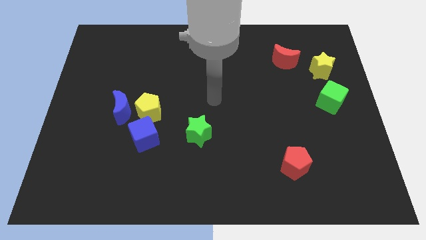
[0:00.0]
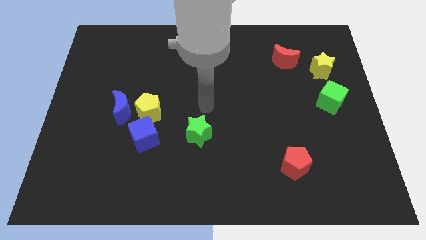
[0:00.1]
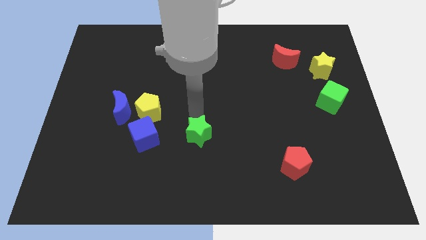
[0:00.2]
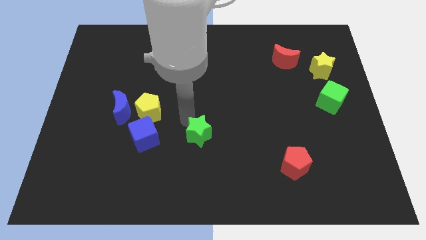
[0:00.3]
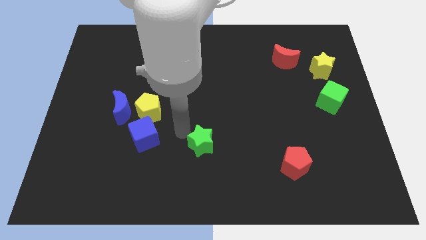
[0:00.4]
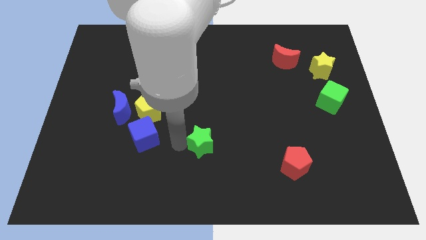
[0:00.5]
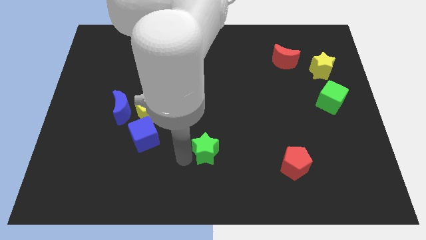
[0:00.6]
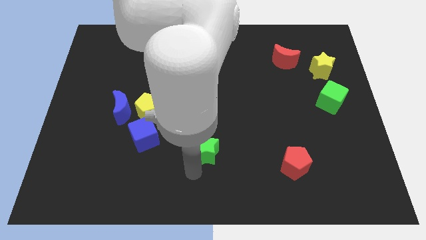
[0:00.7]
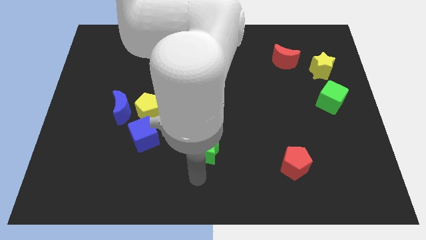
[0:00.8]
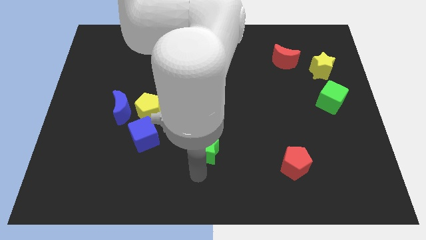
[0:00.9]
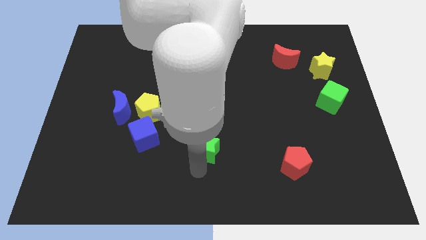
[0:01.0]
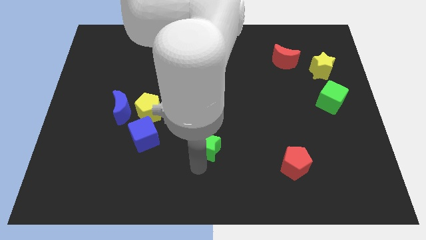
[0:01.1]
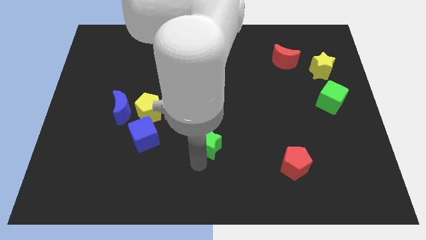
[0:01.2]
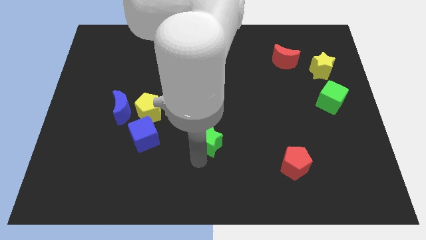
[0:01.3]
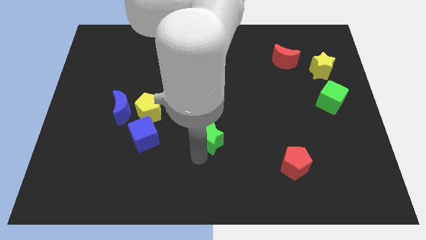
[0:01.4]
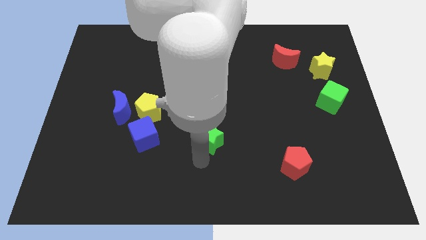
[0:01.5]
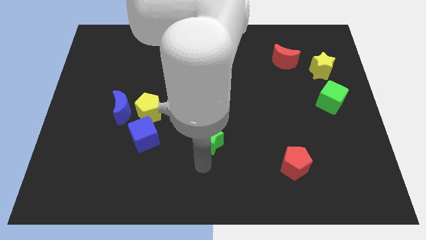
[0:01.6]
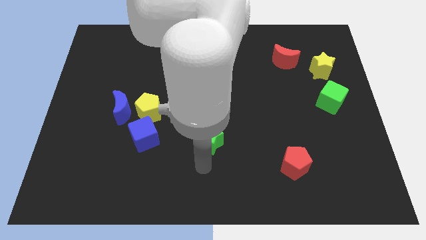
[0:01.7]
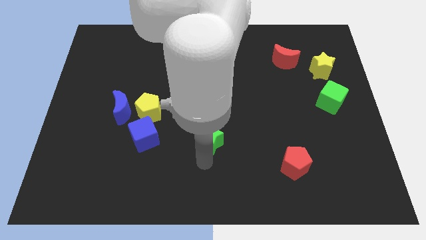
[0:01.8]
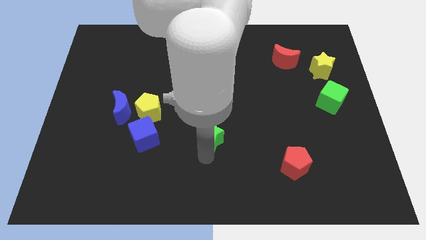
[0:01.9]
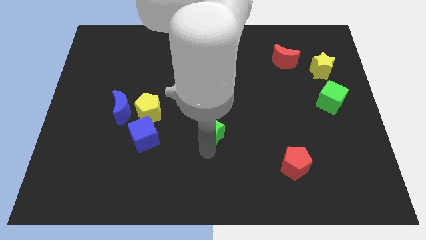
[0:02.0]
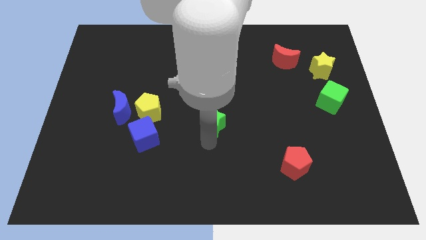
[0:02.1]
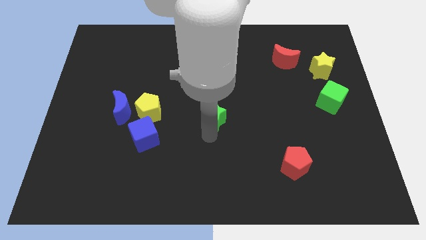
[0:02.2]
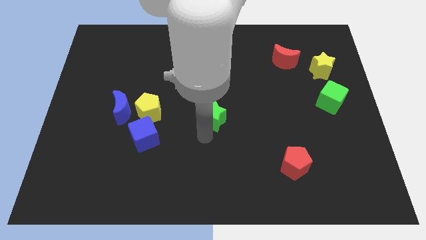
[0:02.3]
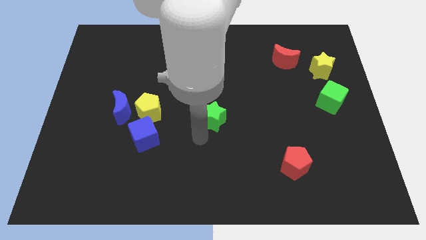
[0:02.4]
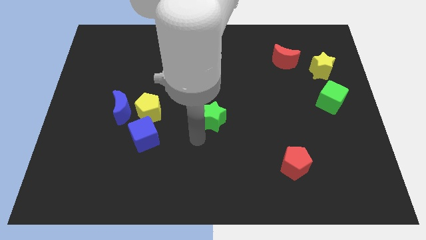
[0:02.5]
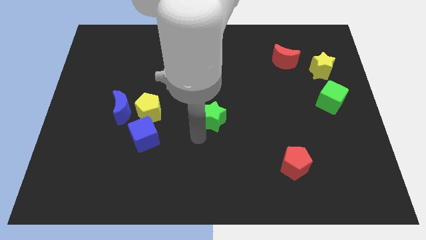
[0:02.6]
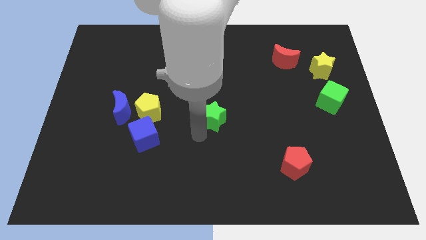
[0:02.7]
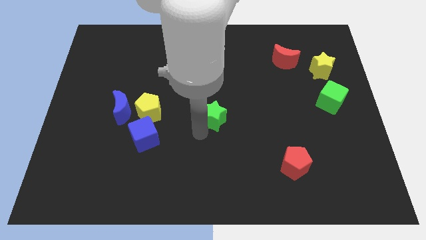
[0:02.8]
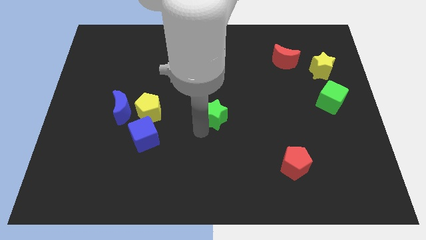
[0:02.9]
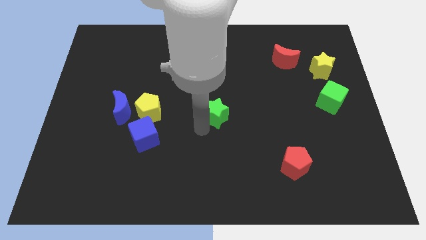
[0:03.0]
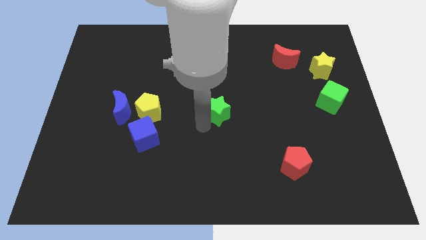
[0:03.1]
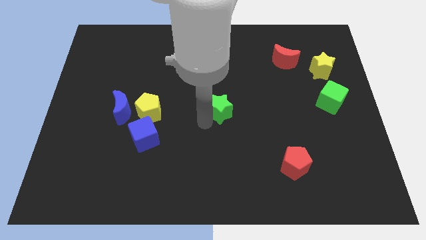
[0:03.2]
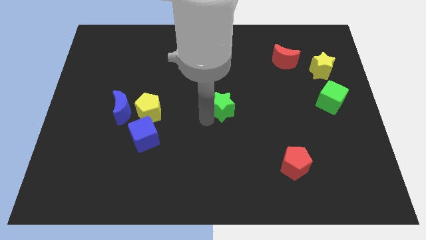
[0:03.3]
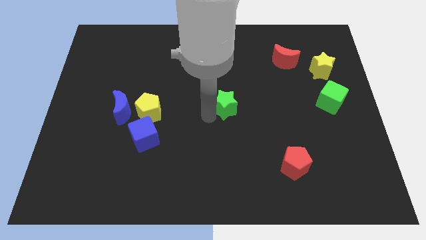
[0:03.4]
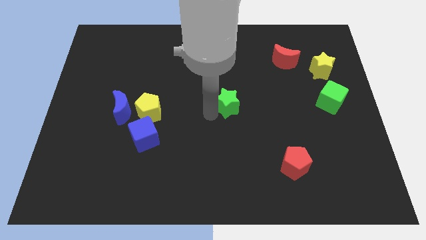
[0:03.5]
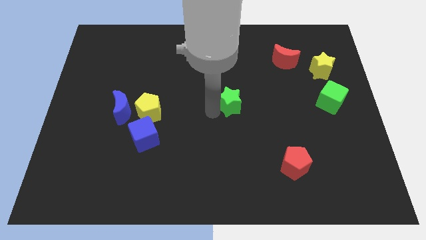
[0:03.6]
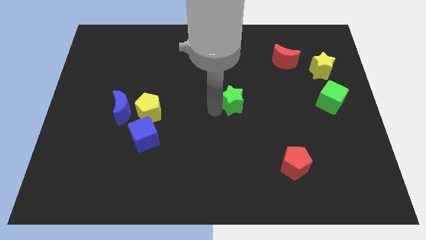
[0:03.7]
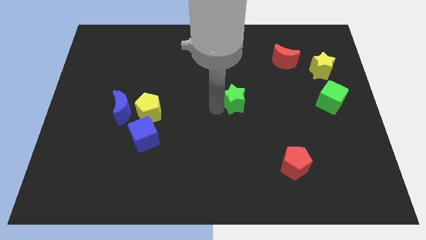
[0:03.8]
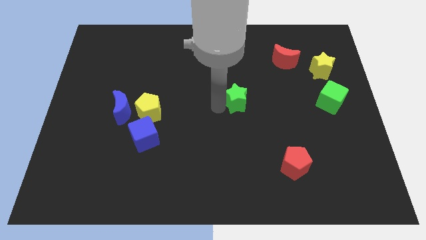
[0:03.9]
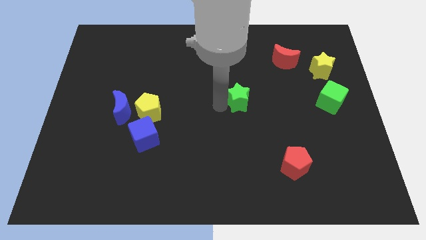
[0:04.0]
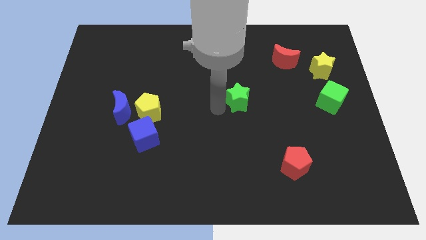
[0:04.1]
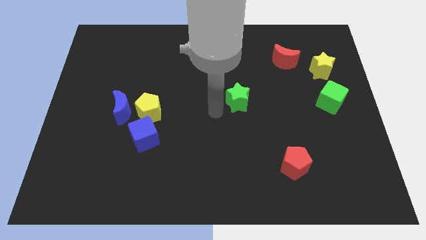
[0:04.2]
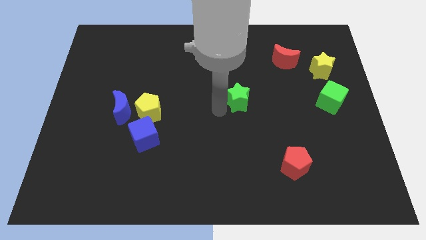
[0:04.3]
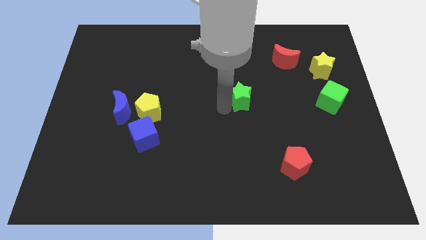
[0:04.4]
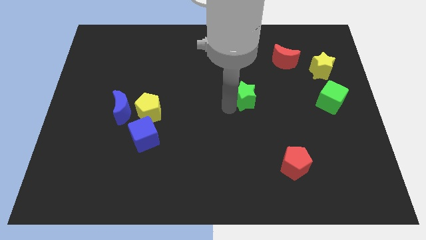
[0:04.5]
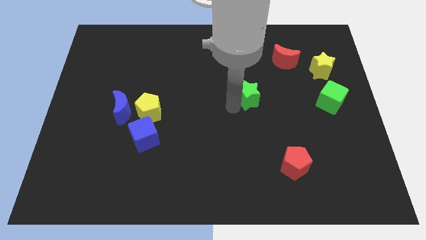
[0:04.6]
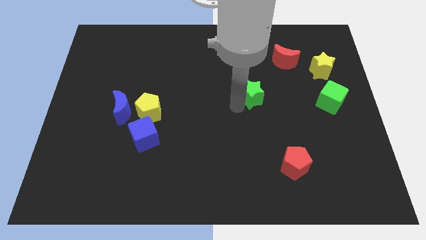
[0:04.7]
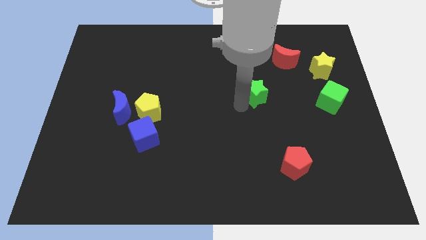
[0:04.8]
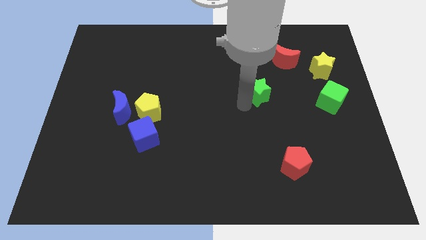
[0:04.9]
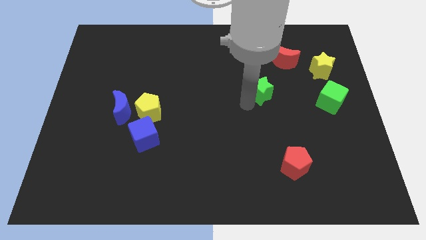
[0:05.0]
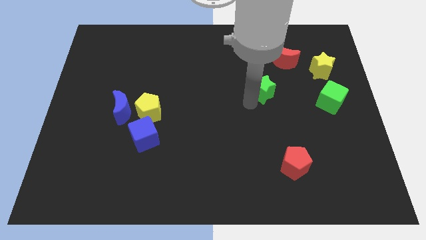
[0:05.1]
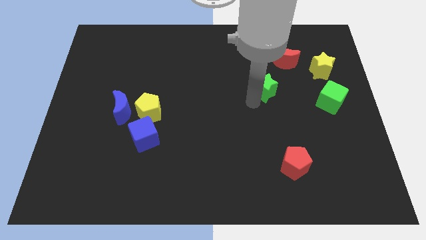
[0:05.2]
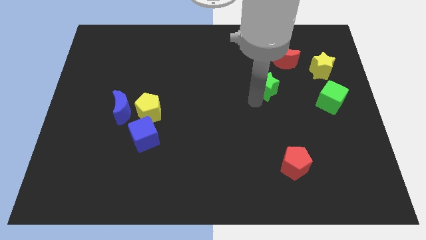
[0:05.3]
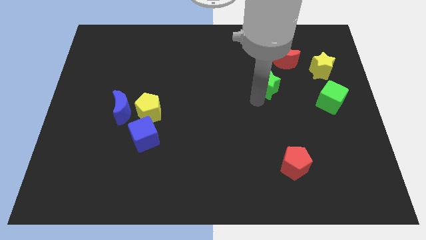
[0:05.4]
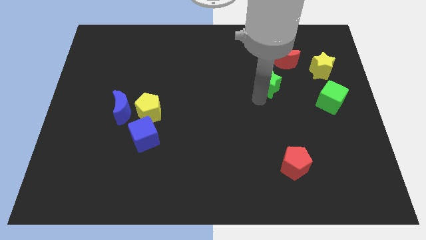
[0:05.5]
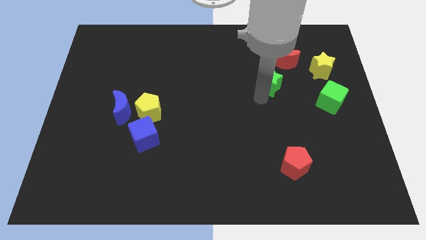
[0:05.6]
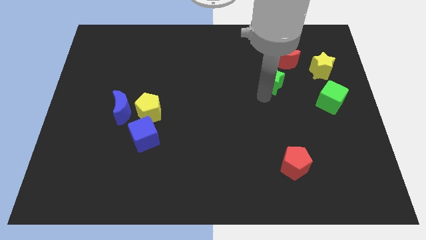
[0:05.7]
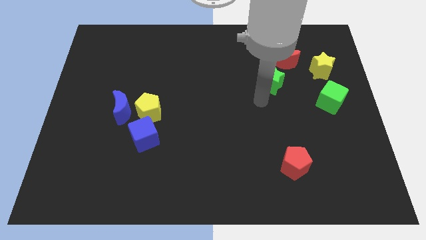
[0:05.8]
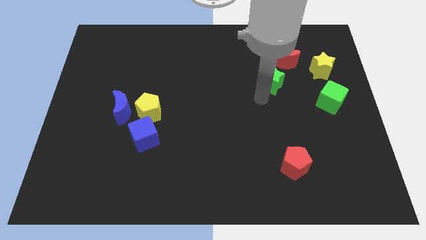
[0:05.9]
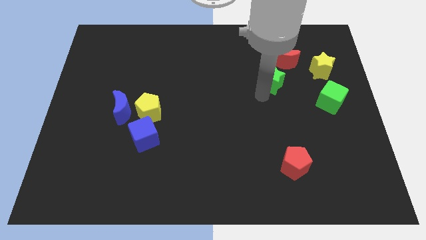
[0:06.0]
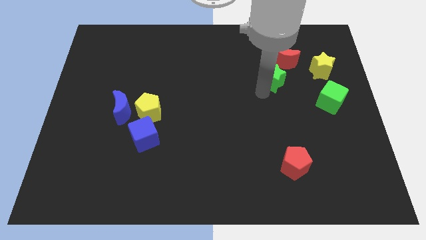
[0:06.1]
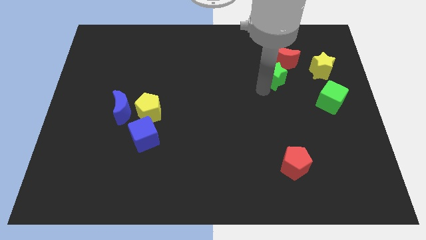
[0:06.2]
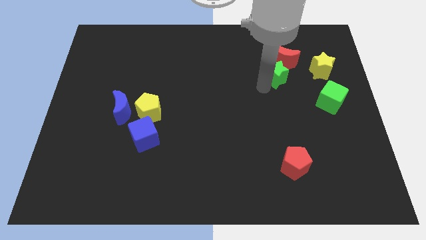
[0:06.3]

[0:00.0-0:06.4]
slide the green star next to the red moon

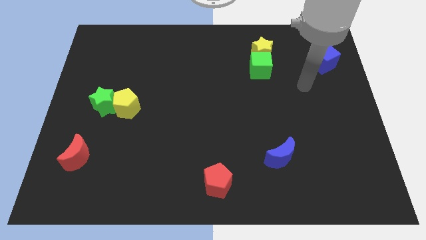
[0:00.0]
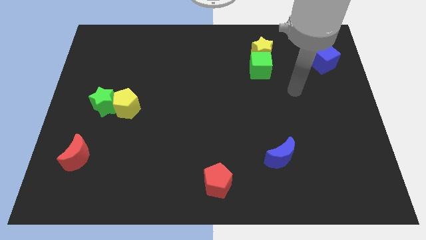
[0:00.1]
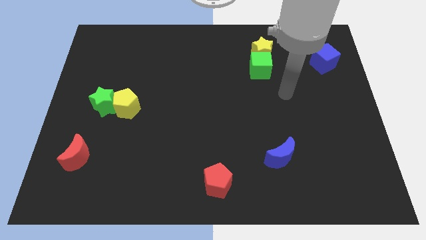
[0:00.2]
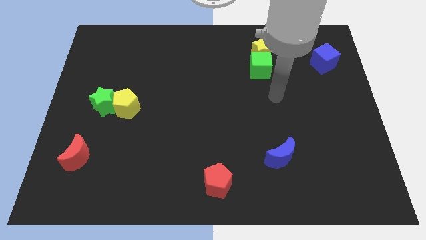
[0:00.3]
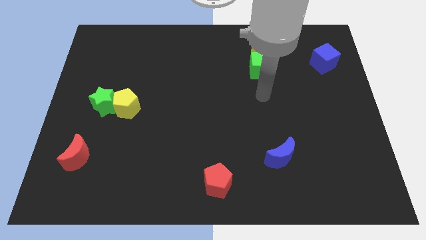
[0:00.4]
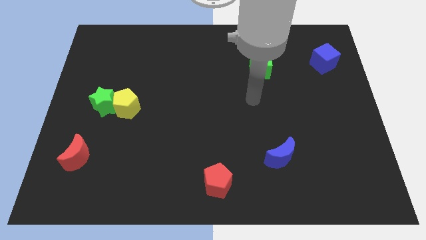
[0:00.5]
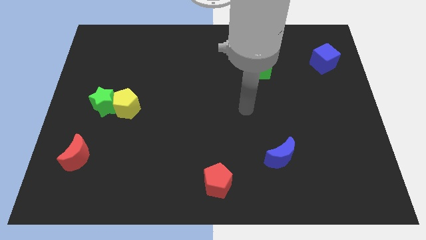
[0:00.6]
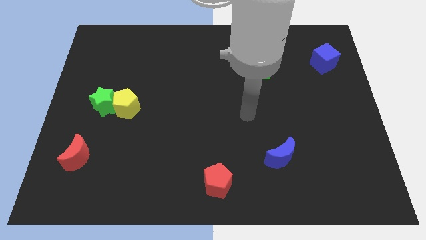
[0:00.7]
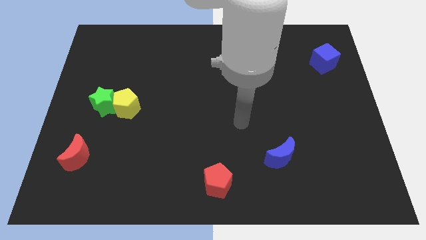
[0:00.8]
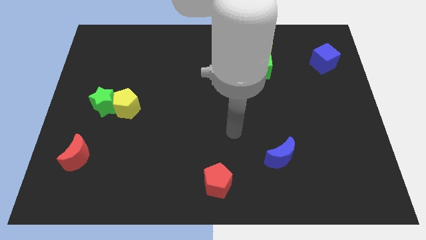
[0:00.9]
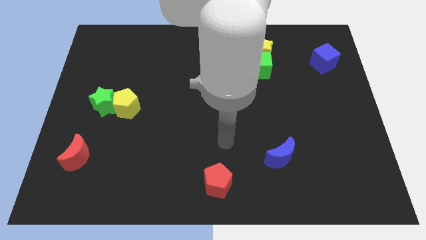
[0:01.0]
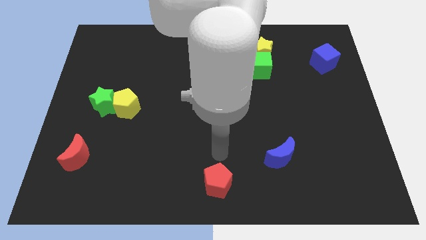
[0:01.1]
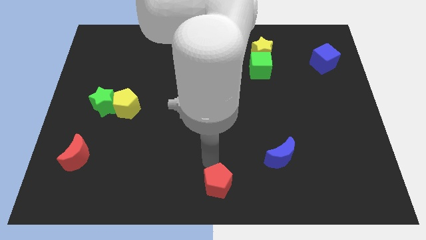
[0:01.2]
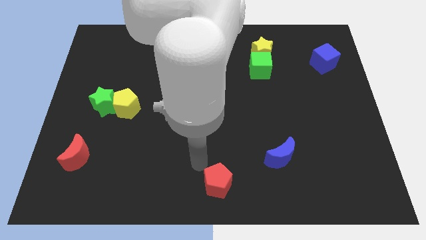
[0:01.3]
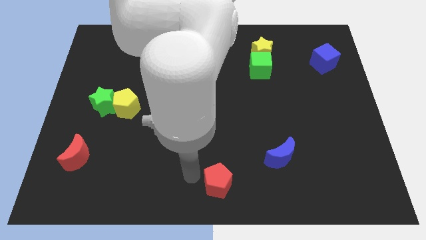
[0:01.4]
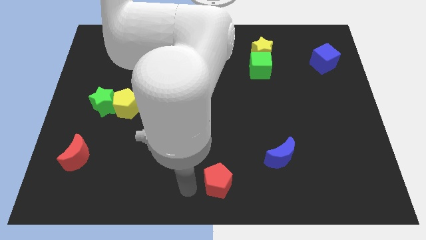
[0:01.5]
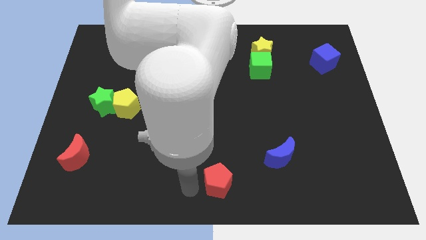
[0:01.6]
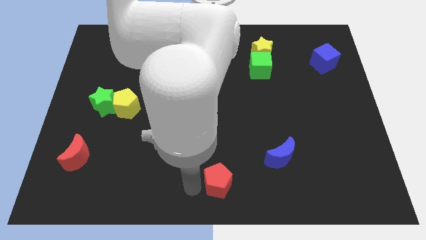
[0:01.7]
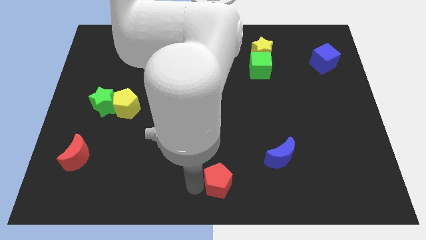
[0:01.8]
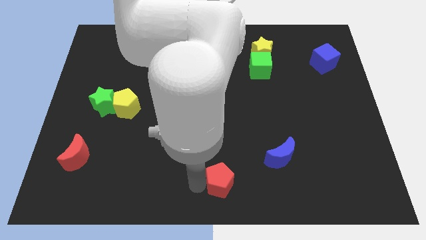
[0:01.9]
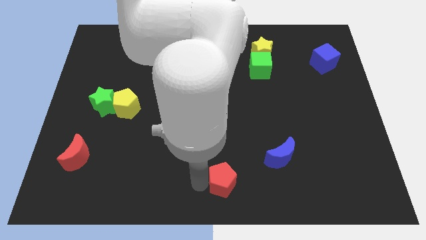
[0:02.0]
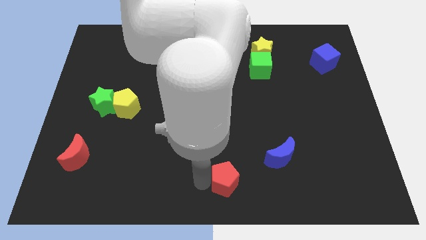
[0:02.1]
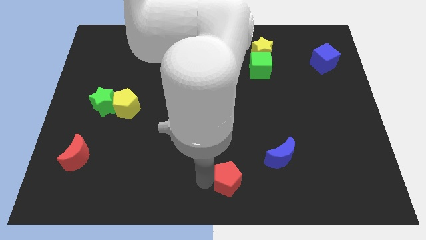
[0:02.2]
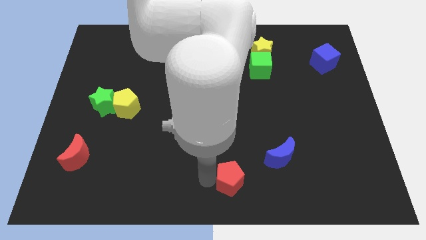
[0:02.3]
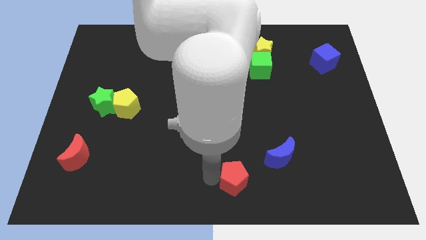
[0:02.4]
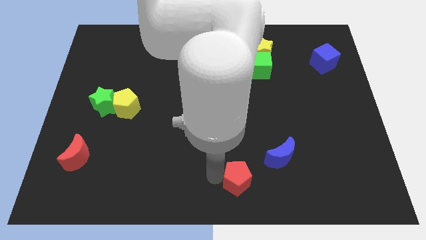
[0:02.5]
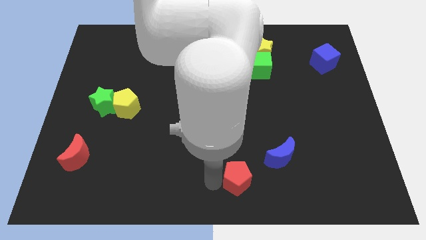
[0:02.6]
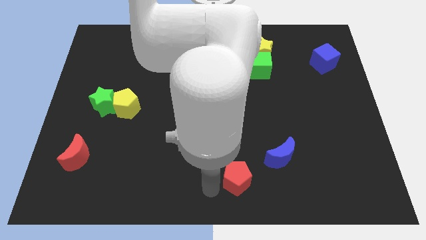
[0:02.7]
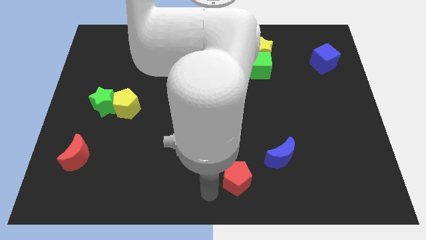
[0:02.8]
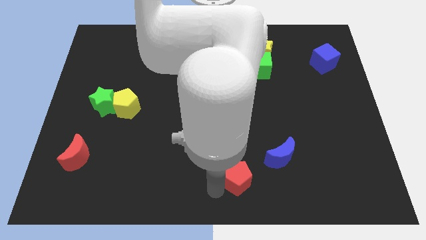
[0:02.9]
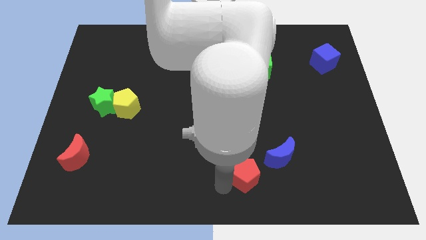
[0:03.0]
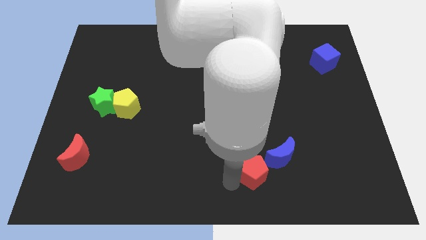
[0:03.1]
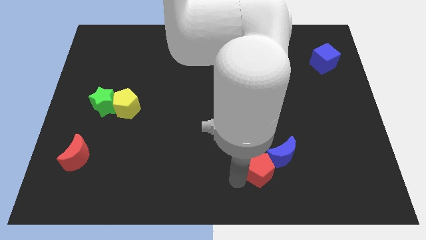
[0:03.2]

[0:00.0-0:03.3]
put the red pentagon close to the blue moon
